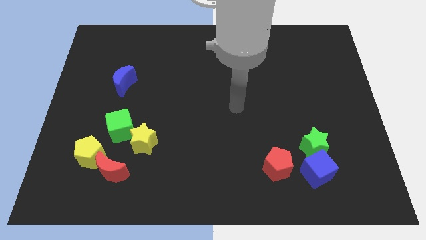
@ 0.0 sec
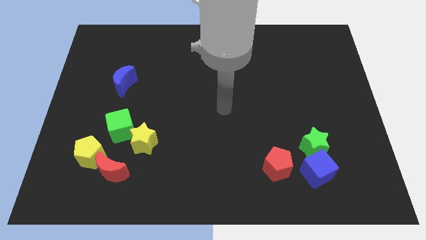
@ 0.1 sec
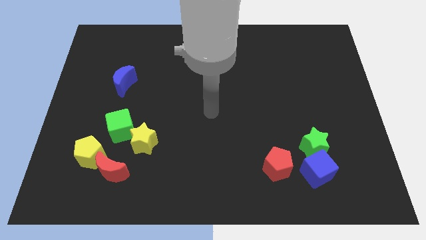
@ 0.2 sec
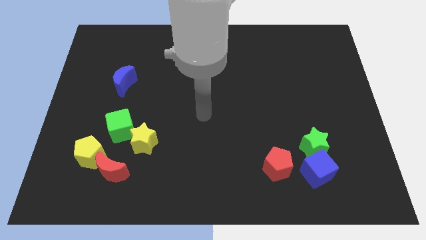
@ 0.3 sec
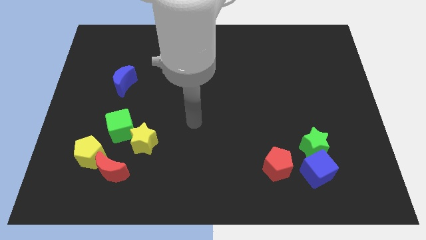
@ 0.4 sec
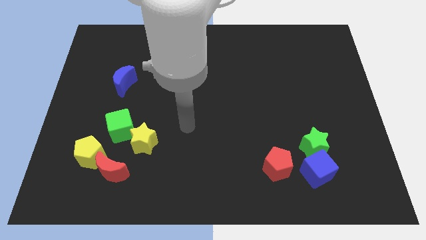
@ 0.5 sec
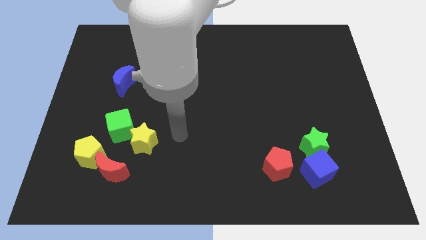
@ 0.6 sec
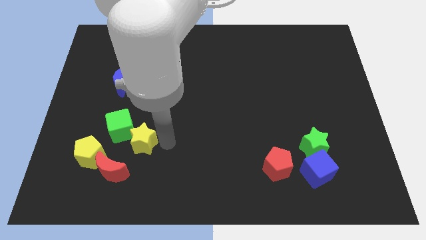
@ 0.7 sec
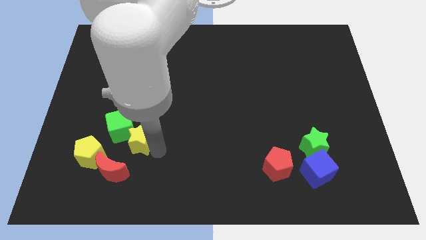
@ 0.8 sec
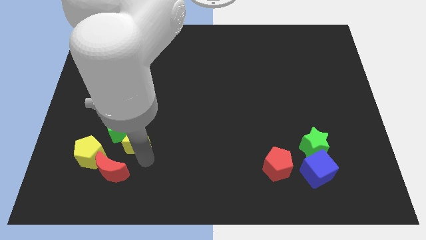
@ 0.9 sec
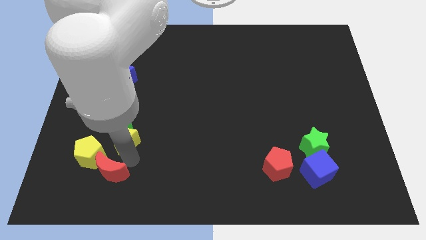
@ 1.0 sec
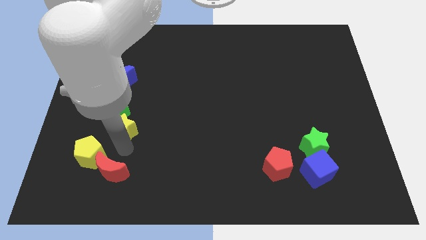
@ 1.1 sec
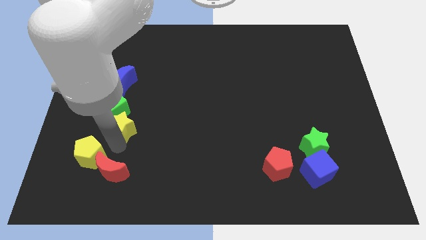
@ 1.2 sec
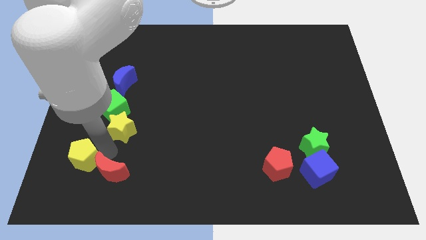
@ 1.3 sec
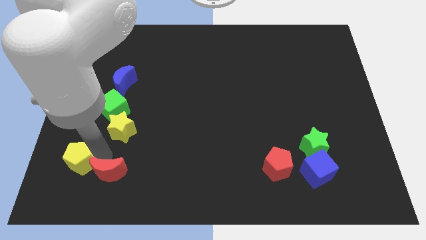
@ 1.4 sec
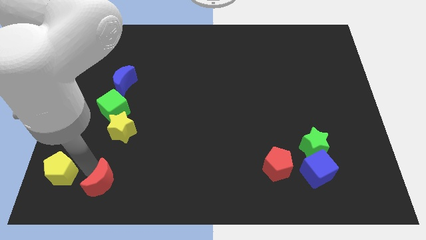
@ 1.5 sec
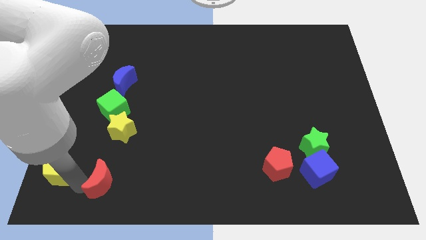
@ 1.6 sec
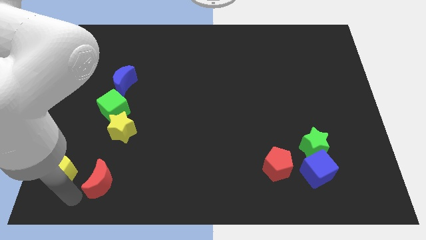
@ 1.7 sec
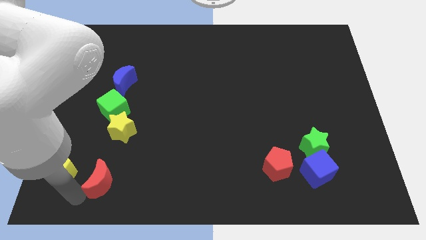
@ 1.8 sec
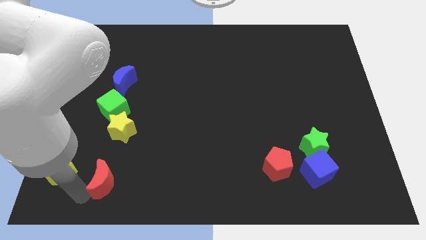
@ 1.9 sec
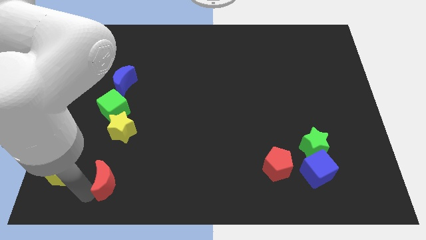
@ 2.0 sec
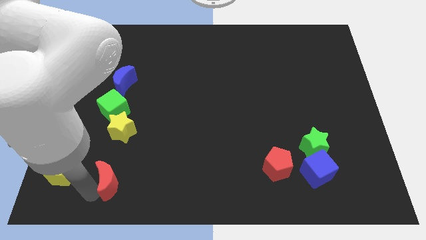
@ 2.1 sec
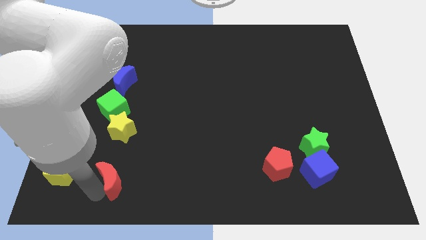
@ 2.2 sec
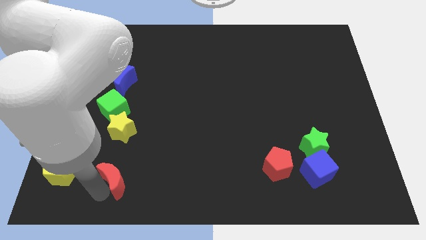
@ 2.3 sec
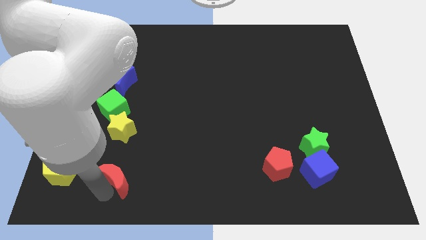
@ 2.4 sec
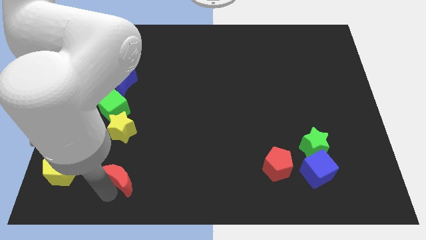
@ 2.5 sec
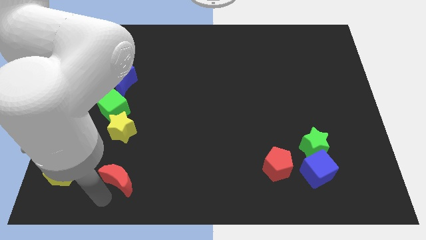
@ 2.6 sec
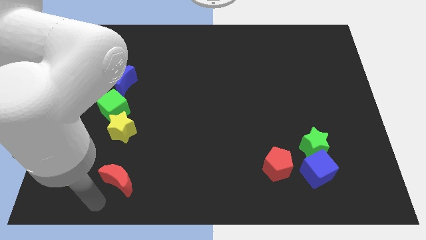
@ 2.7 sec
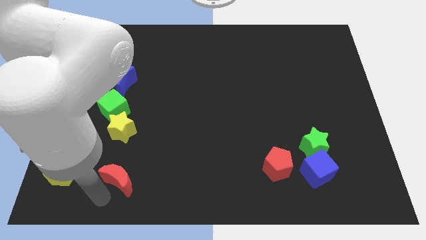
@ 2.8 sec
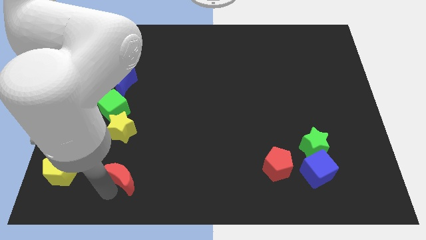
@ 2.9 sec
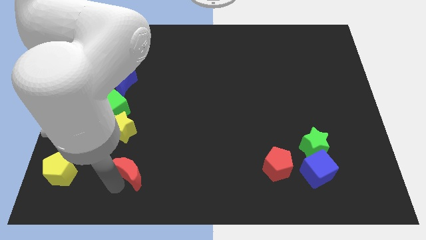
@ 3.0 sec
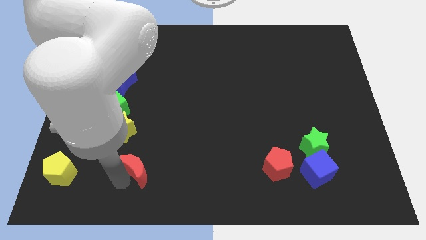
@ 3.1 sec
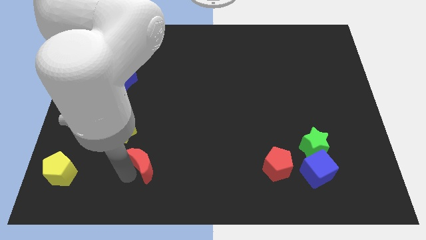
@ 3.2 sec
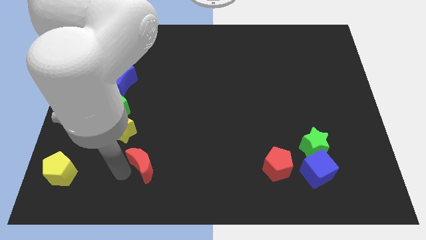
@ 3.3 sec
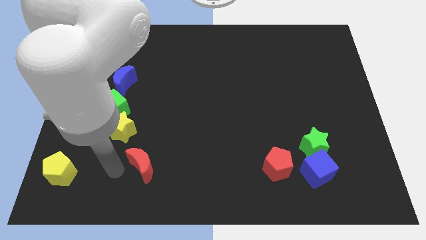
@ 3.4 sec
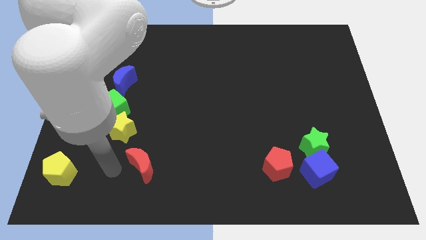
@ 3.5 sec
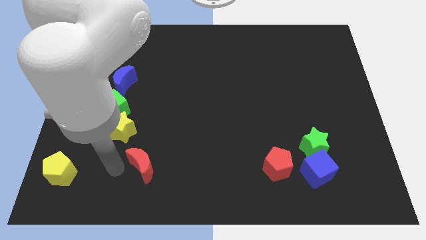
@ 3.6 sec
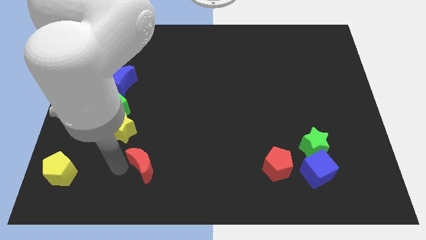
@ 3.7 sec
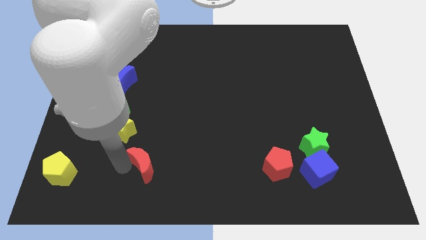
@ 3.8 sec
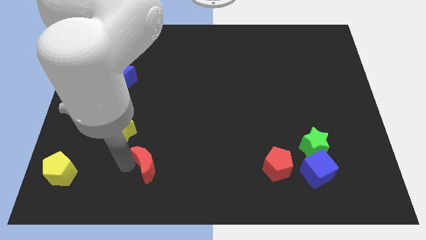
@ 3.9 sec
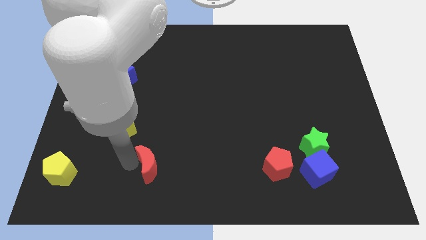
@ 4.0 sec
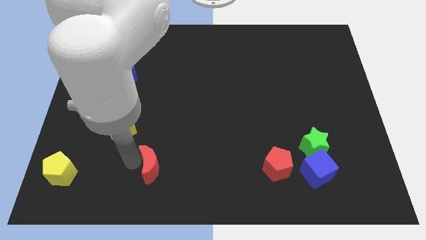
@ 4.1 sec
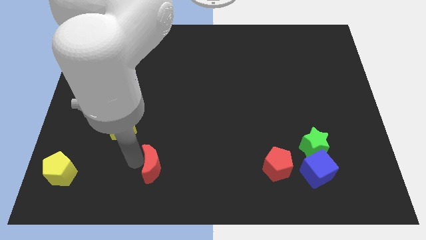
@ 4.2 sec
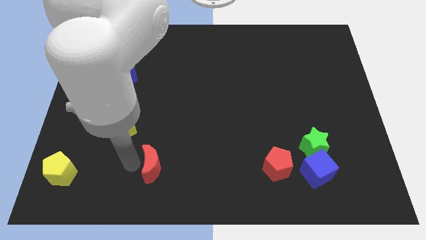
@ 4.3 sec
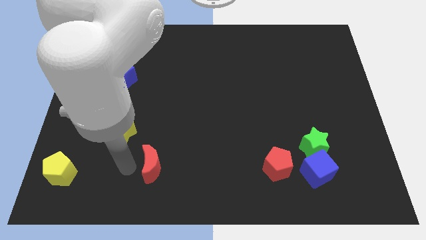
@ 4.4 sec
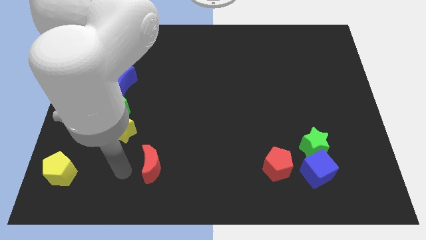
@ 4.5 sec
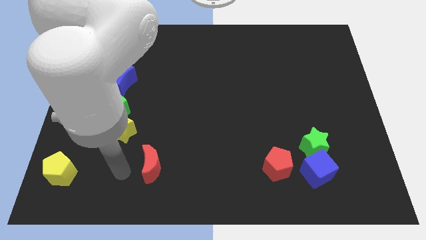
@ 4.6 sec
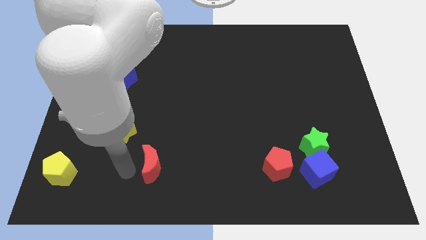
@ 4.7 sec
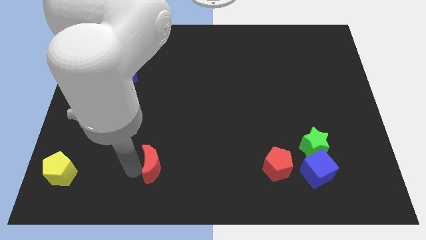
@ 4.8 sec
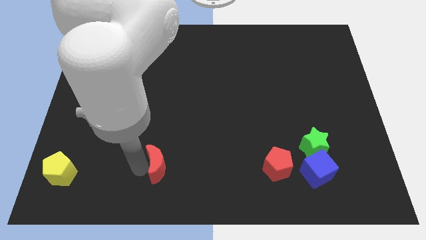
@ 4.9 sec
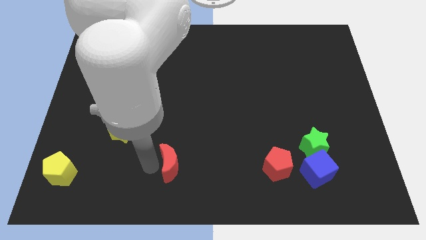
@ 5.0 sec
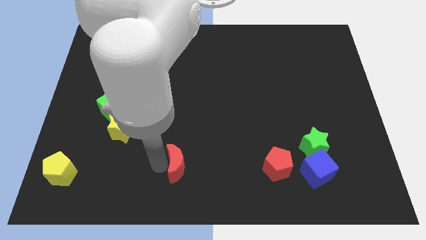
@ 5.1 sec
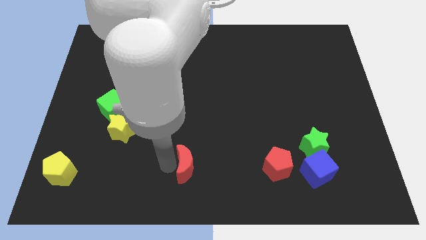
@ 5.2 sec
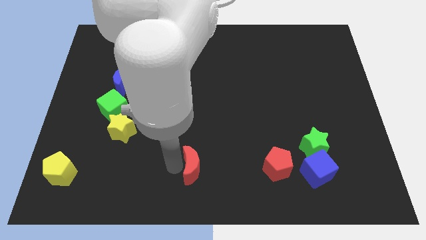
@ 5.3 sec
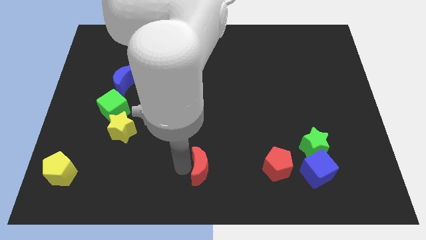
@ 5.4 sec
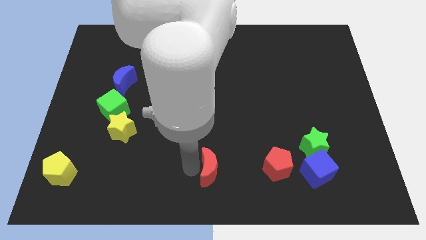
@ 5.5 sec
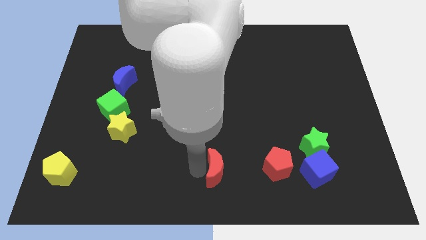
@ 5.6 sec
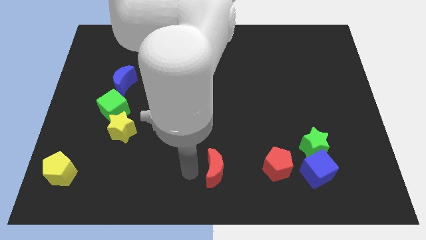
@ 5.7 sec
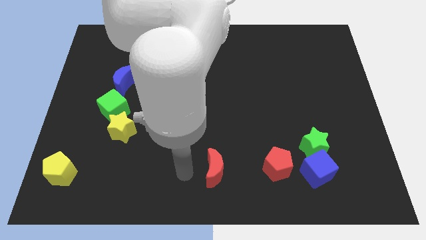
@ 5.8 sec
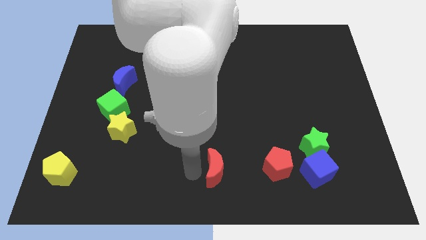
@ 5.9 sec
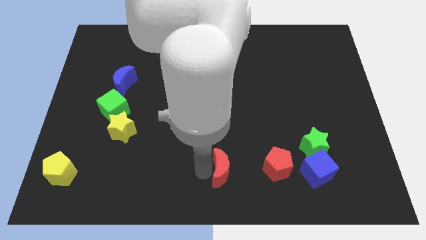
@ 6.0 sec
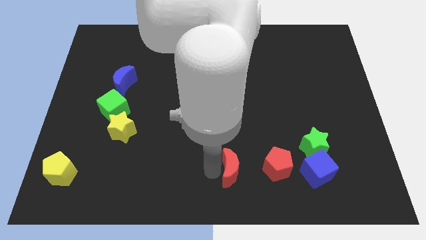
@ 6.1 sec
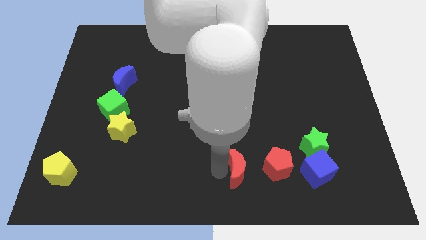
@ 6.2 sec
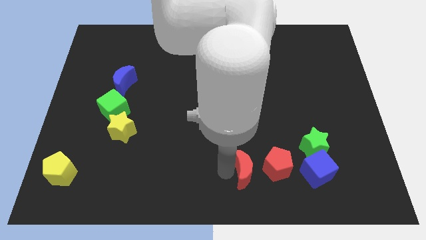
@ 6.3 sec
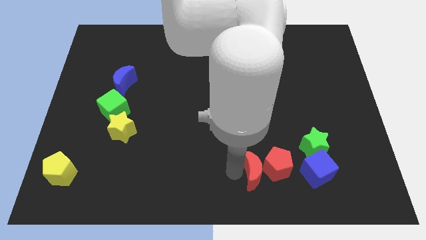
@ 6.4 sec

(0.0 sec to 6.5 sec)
move the red moon next to the red pentagon

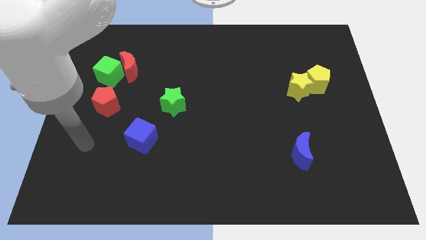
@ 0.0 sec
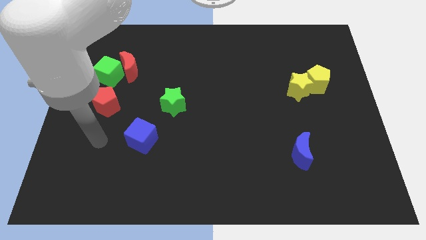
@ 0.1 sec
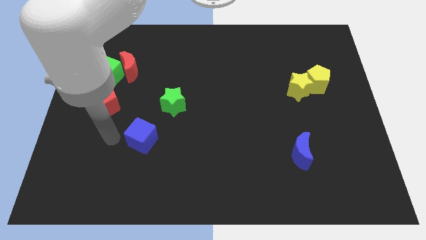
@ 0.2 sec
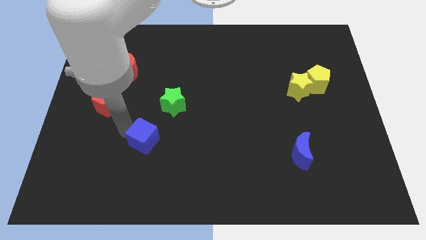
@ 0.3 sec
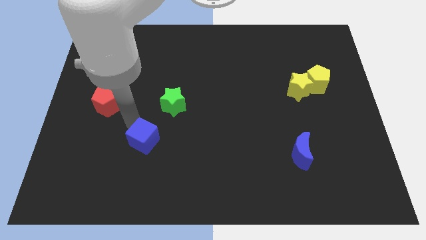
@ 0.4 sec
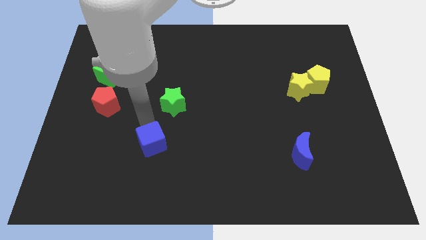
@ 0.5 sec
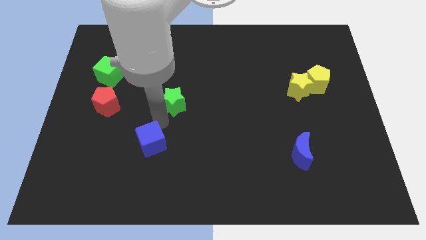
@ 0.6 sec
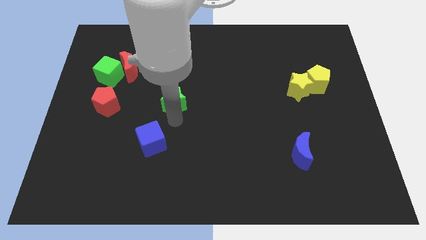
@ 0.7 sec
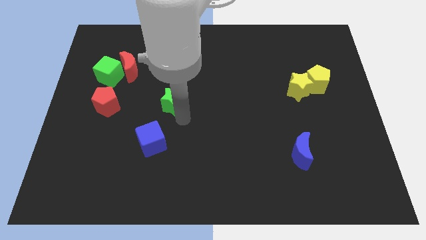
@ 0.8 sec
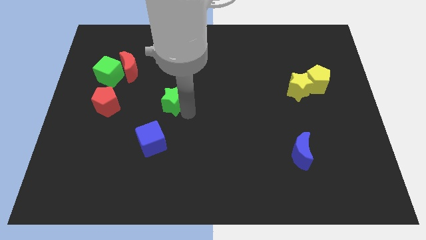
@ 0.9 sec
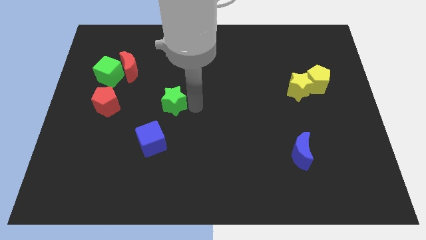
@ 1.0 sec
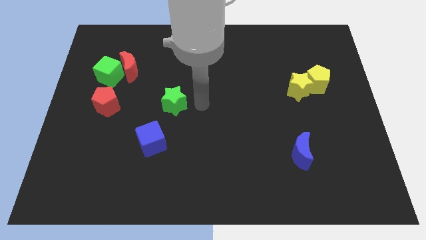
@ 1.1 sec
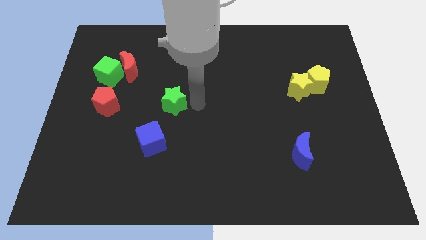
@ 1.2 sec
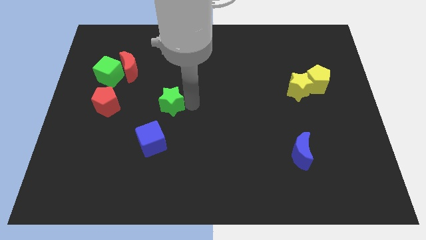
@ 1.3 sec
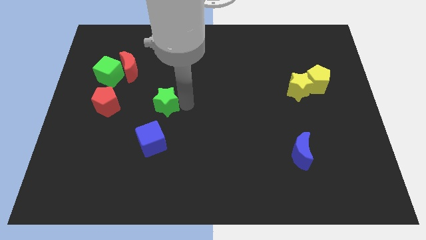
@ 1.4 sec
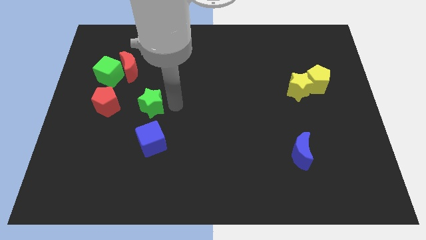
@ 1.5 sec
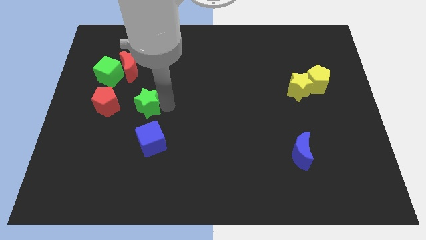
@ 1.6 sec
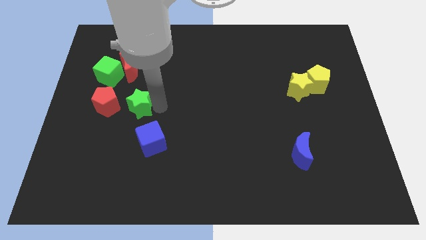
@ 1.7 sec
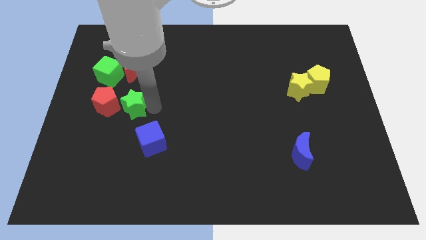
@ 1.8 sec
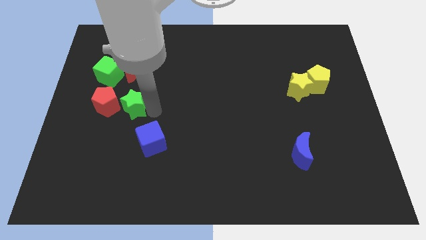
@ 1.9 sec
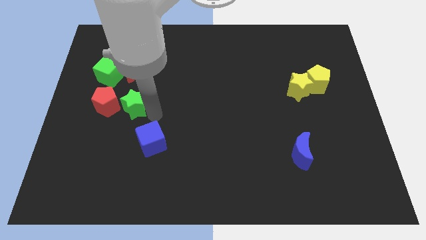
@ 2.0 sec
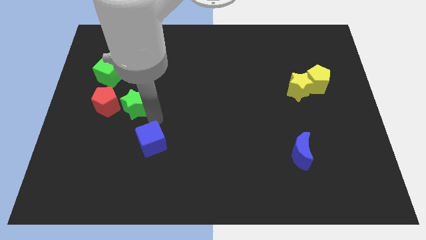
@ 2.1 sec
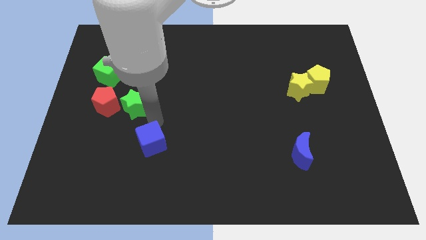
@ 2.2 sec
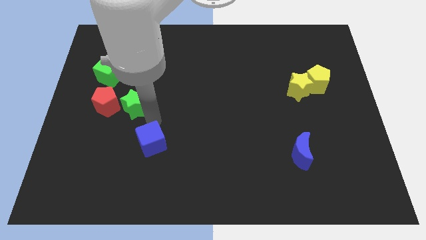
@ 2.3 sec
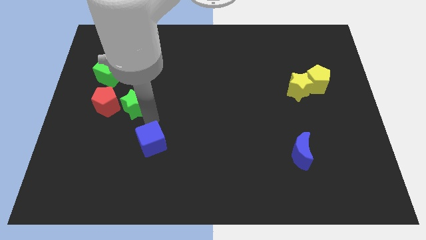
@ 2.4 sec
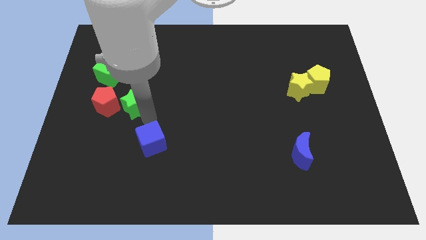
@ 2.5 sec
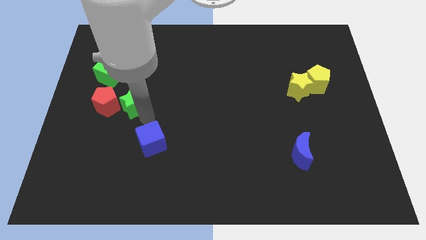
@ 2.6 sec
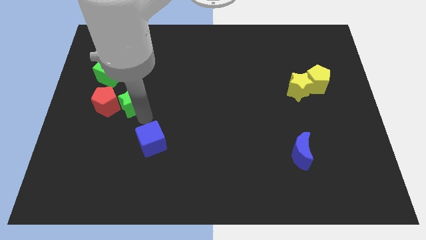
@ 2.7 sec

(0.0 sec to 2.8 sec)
put the green star towards the red pentagon
